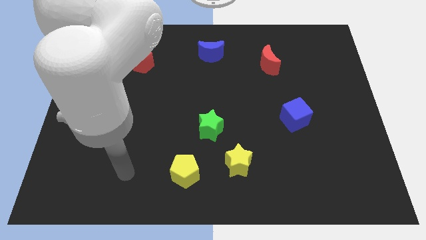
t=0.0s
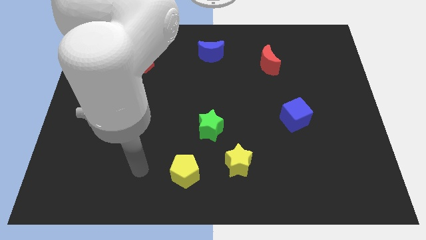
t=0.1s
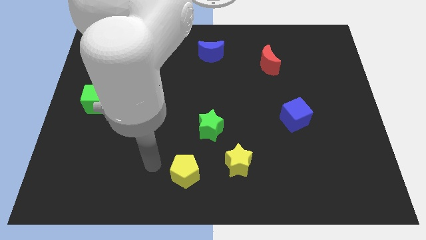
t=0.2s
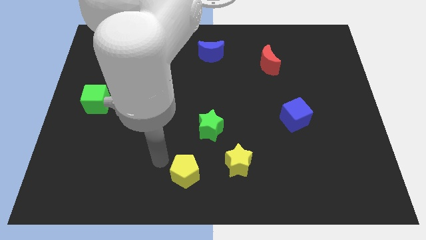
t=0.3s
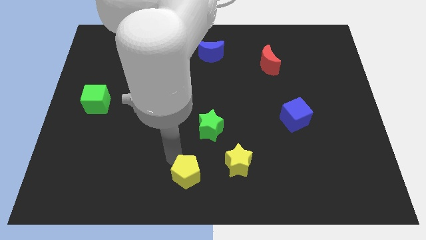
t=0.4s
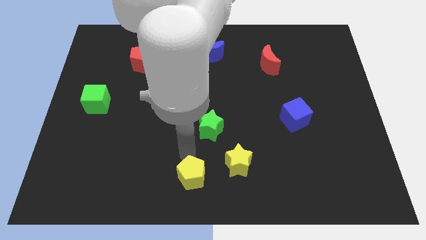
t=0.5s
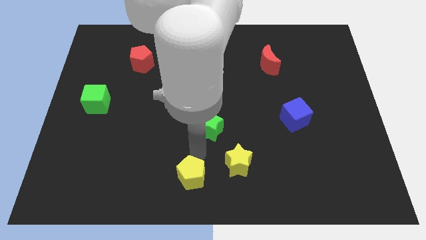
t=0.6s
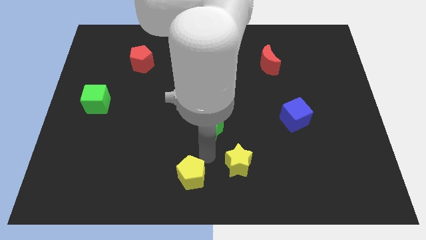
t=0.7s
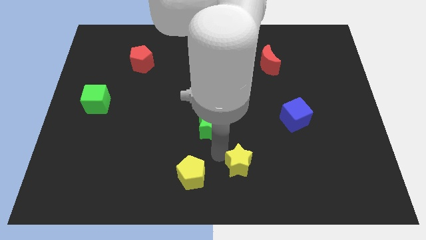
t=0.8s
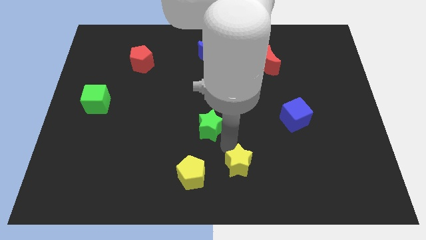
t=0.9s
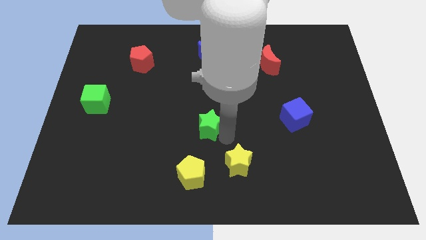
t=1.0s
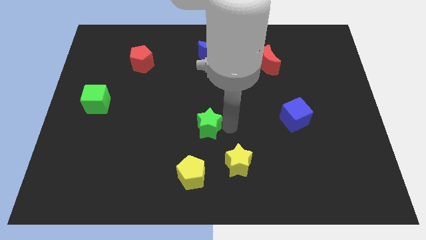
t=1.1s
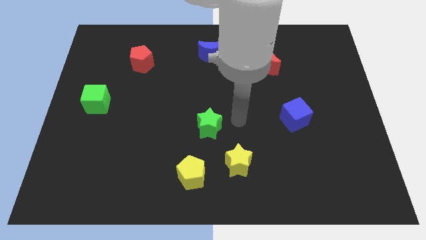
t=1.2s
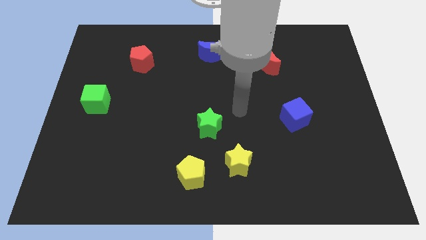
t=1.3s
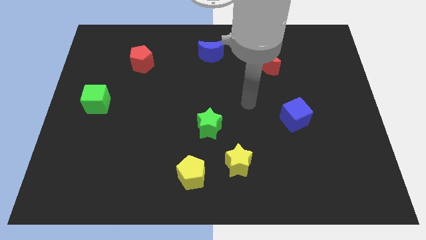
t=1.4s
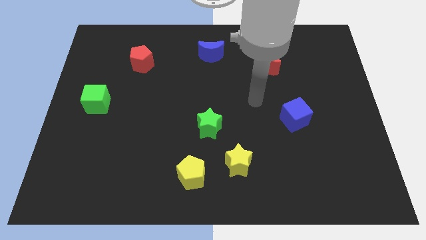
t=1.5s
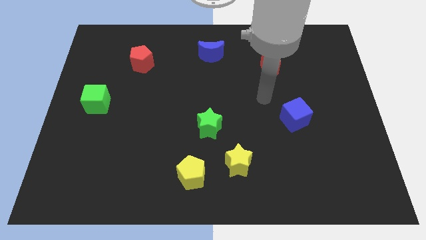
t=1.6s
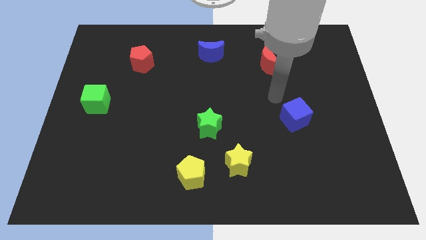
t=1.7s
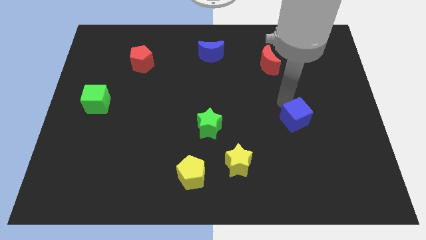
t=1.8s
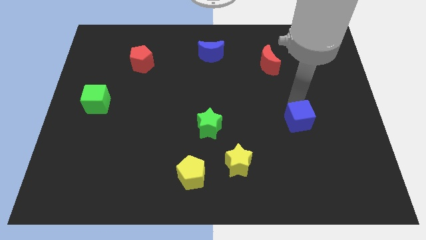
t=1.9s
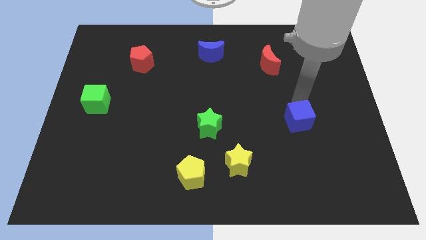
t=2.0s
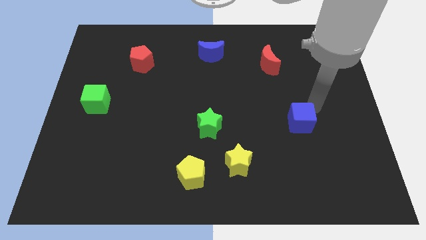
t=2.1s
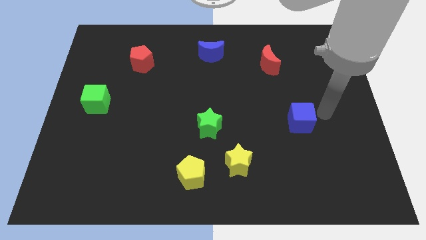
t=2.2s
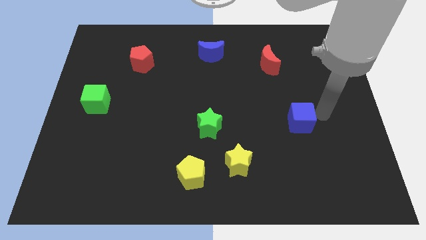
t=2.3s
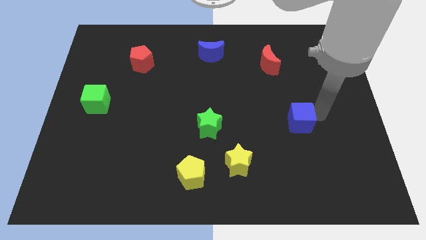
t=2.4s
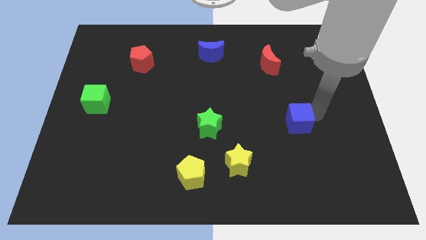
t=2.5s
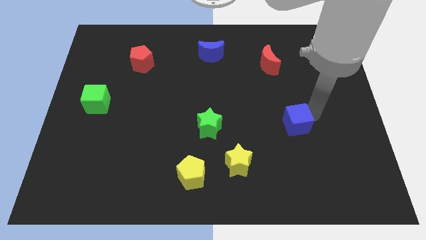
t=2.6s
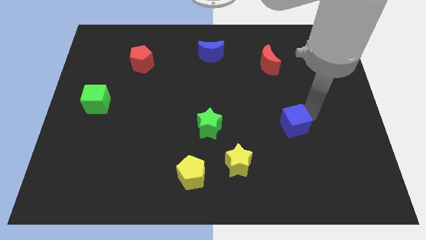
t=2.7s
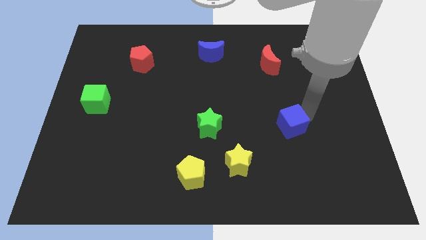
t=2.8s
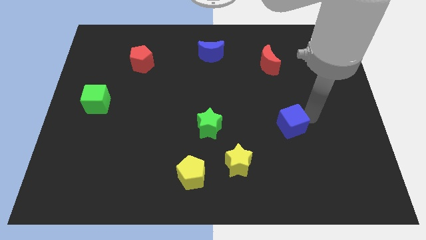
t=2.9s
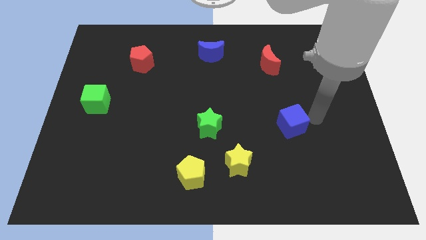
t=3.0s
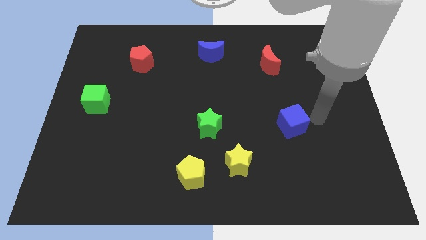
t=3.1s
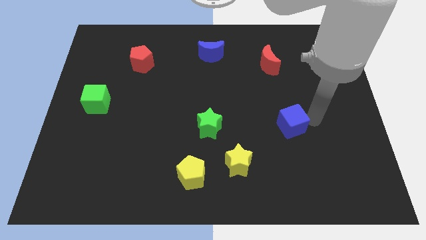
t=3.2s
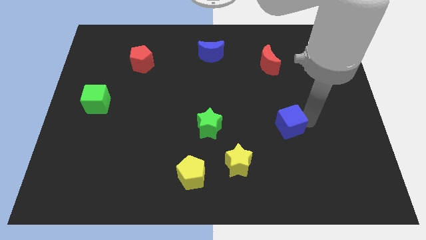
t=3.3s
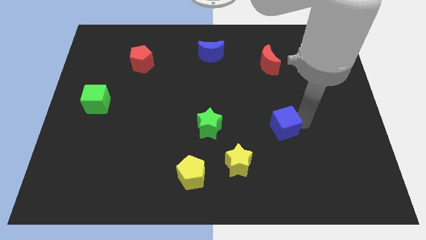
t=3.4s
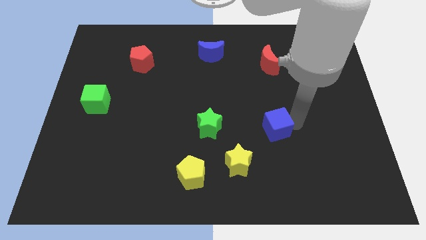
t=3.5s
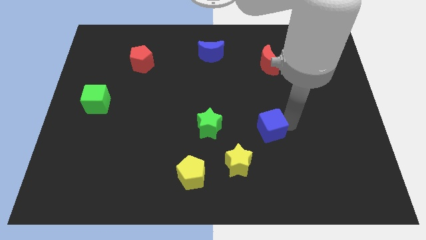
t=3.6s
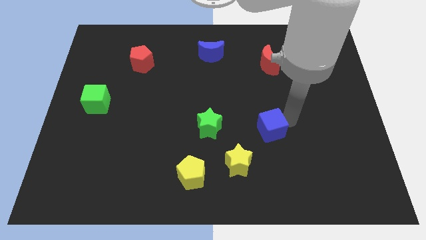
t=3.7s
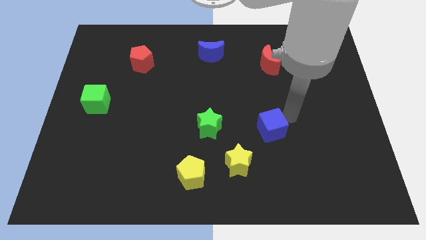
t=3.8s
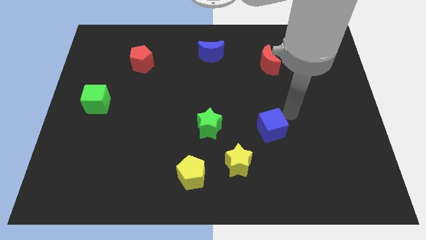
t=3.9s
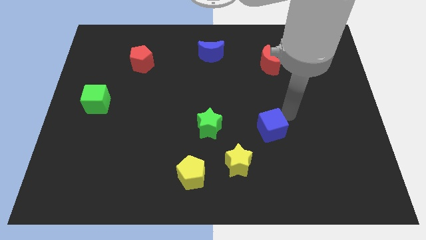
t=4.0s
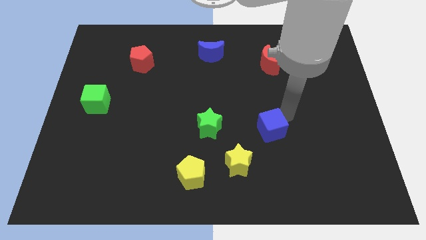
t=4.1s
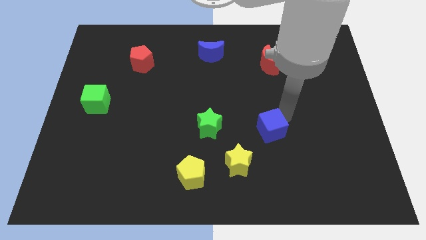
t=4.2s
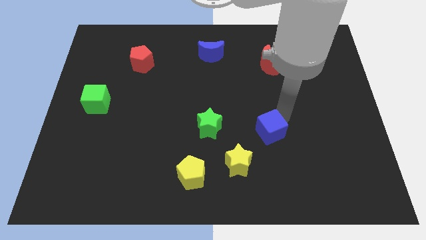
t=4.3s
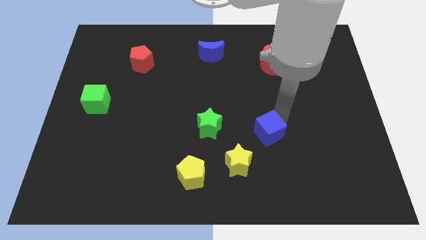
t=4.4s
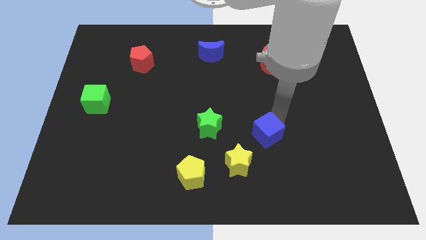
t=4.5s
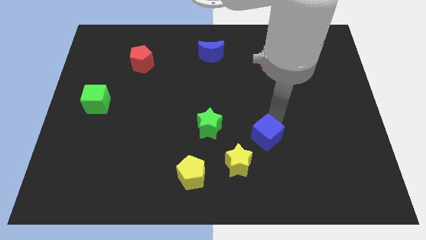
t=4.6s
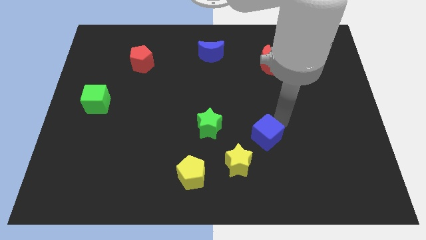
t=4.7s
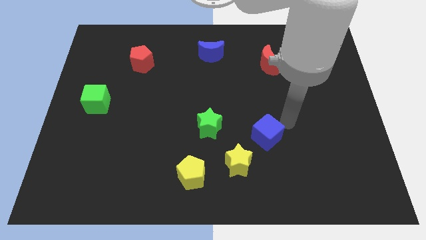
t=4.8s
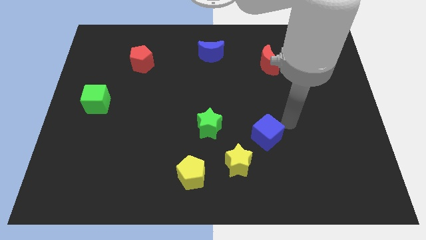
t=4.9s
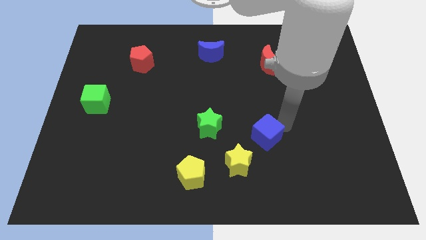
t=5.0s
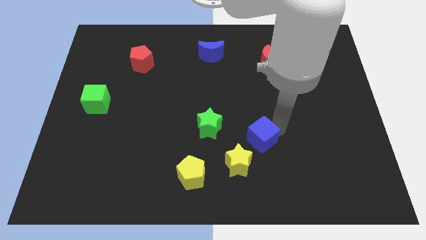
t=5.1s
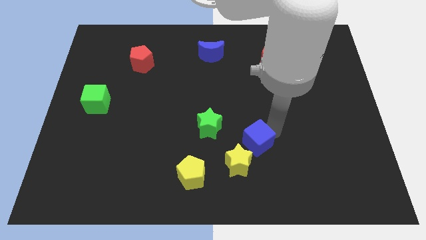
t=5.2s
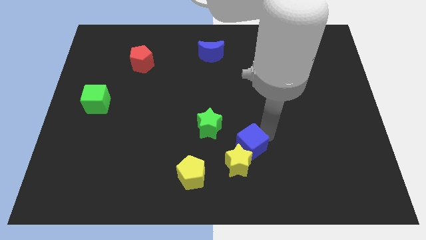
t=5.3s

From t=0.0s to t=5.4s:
move the blue cube next to the yellow star

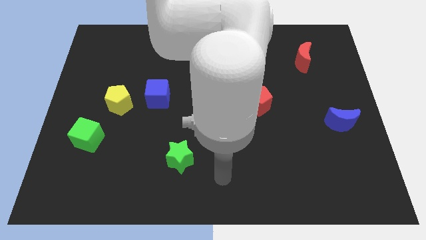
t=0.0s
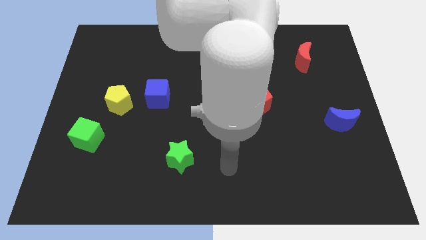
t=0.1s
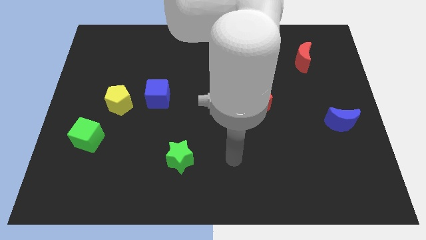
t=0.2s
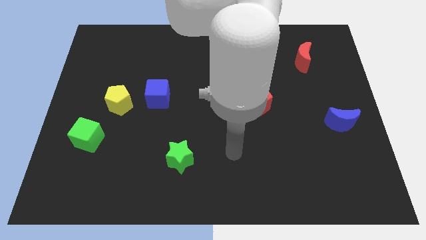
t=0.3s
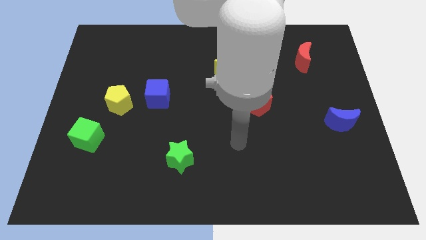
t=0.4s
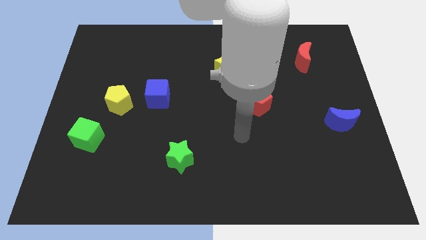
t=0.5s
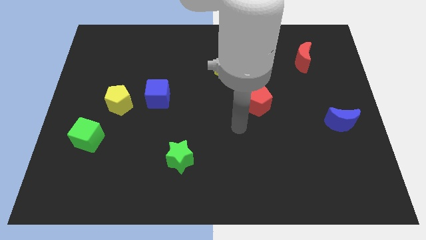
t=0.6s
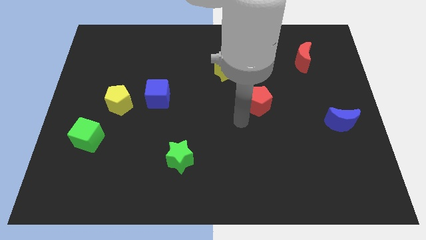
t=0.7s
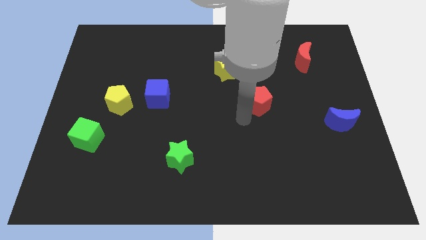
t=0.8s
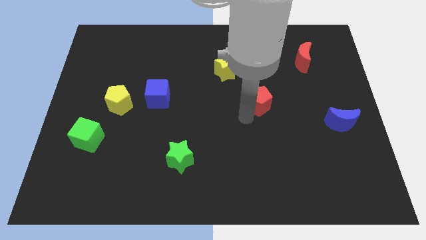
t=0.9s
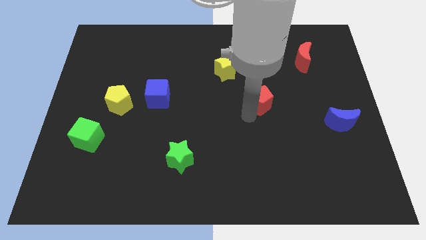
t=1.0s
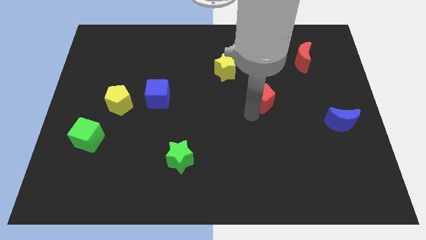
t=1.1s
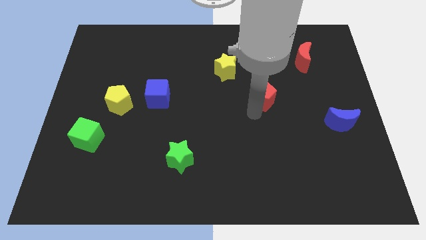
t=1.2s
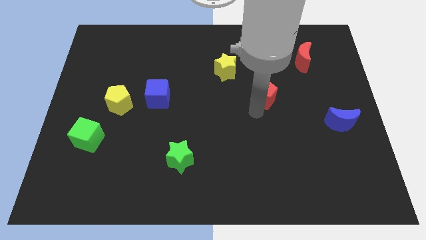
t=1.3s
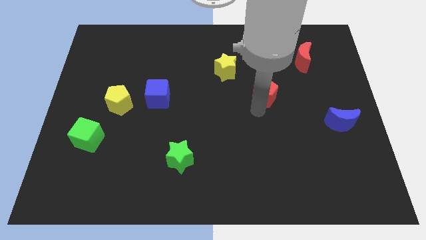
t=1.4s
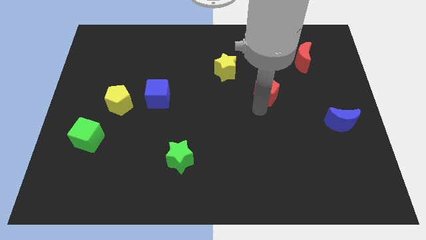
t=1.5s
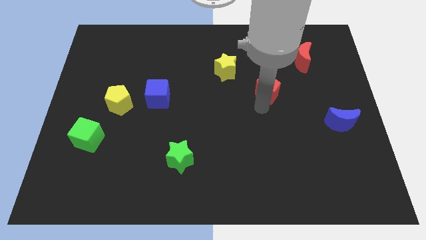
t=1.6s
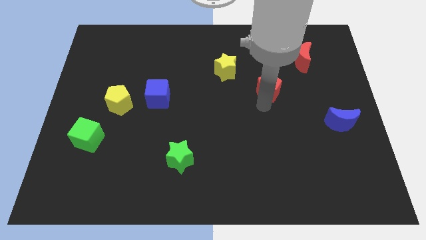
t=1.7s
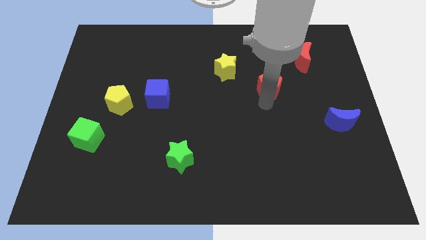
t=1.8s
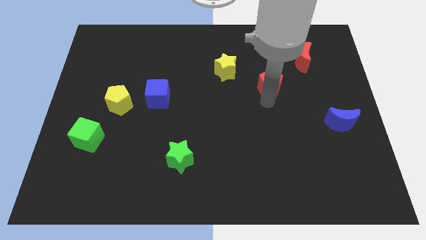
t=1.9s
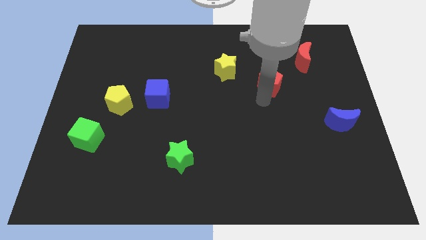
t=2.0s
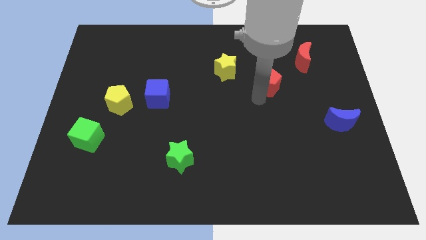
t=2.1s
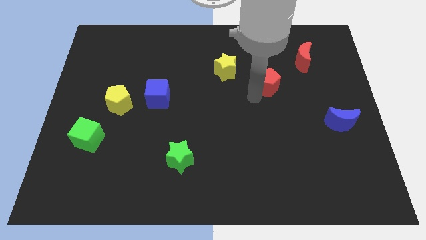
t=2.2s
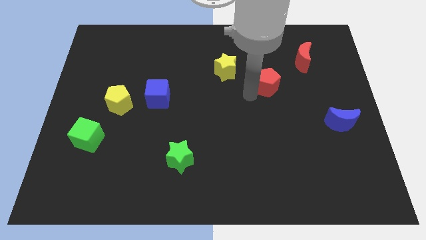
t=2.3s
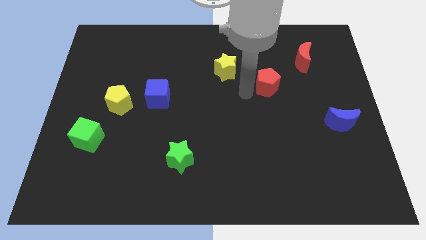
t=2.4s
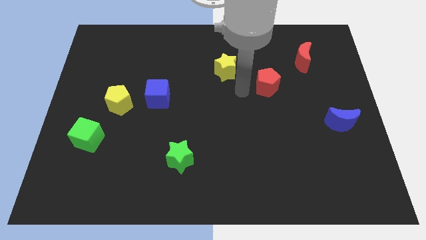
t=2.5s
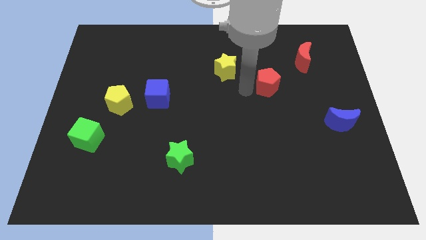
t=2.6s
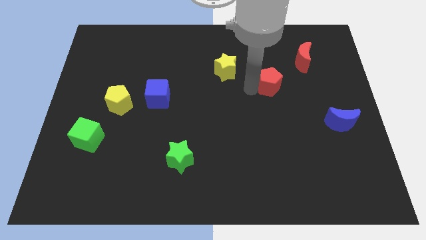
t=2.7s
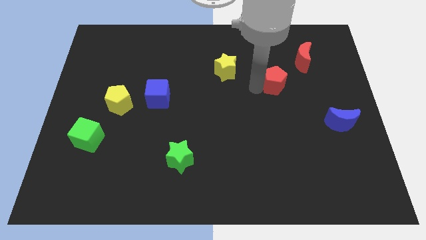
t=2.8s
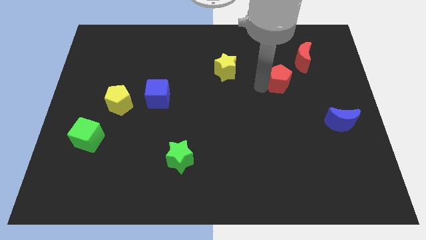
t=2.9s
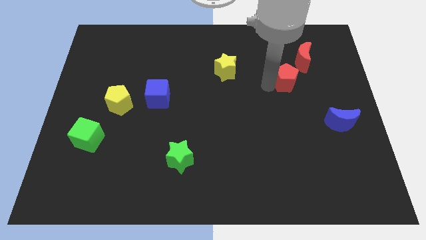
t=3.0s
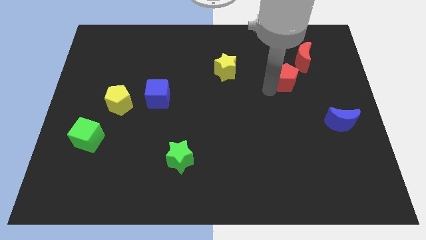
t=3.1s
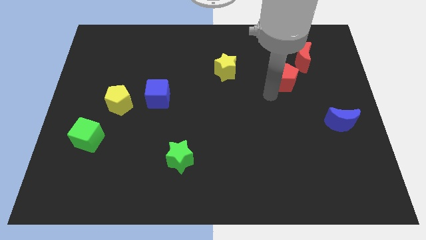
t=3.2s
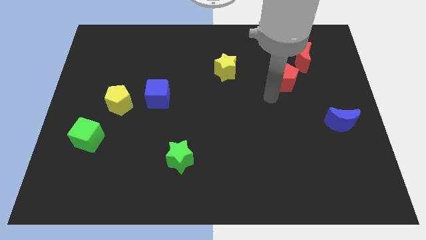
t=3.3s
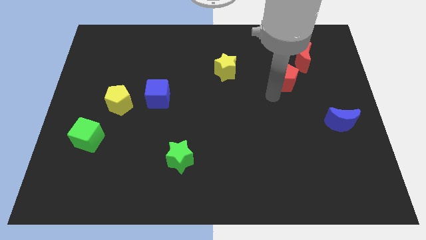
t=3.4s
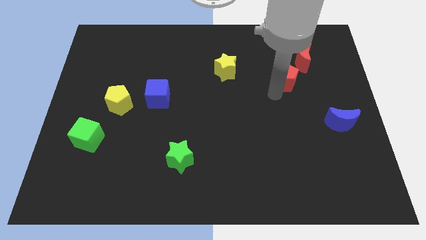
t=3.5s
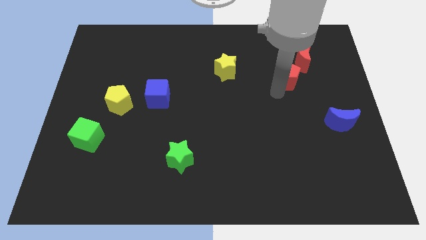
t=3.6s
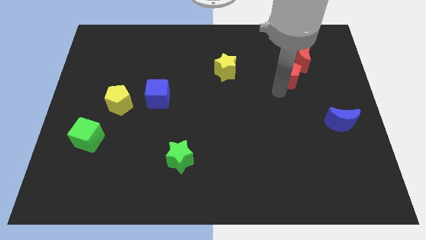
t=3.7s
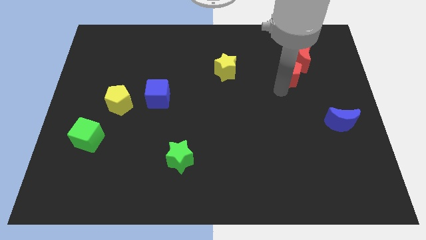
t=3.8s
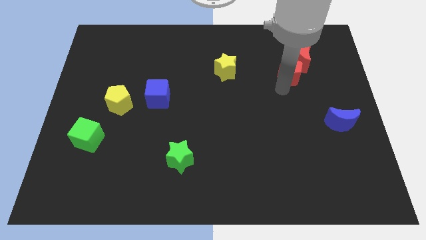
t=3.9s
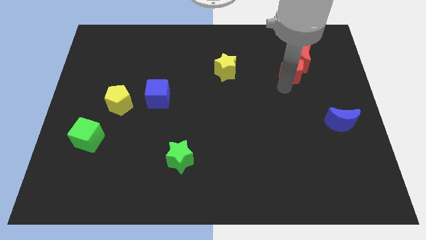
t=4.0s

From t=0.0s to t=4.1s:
slide the red pentagon to the red moon
